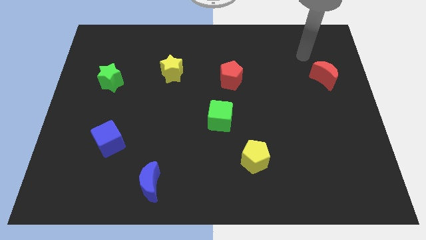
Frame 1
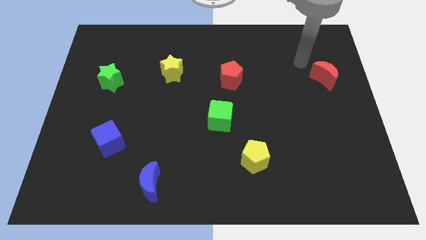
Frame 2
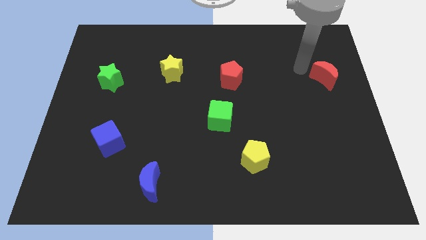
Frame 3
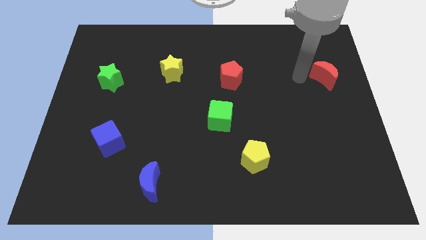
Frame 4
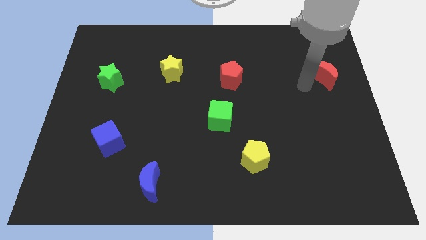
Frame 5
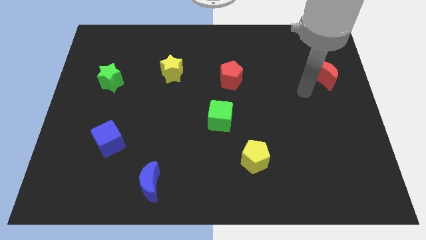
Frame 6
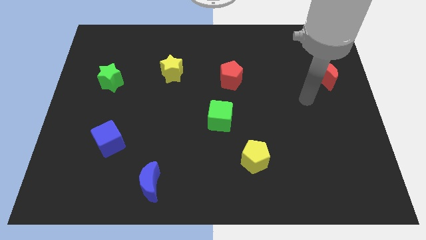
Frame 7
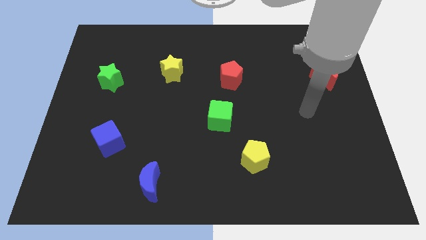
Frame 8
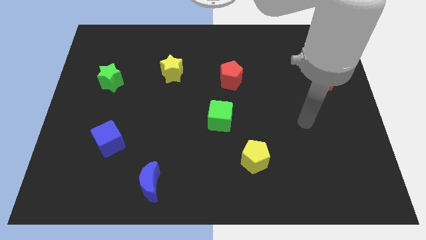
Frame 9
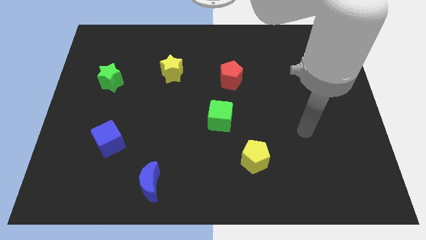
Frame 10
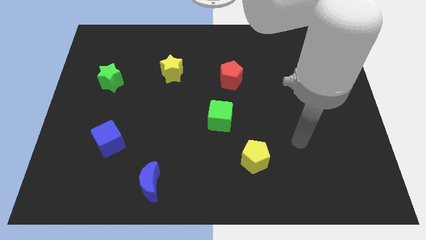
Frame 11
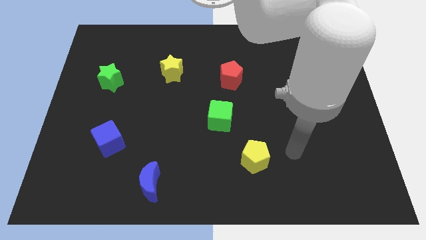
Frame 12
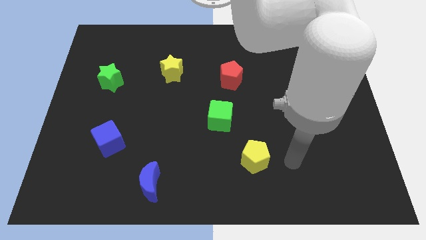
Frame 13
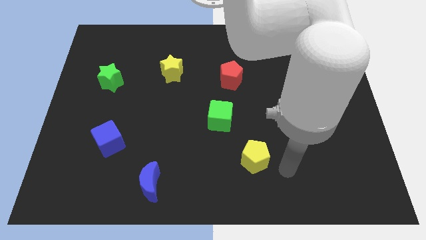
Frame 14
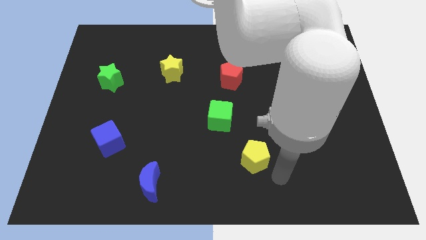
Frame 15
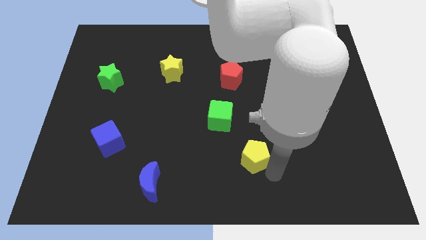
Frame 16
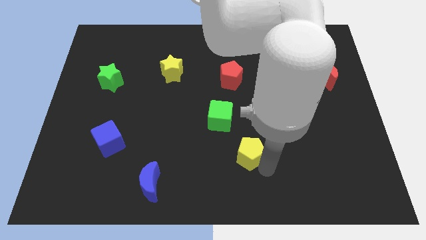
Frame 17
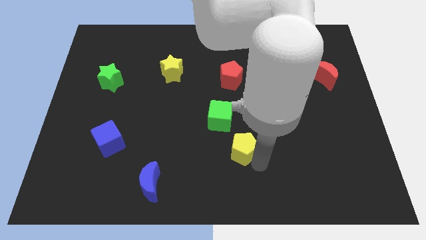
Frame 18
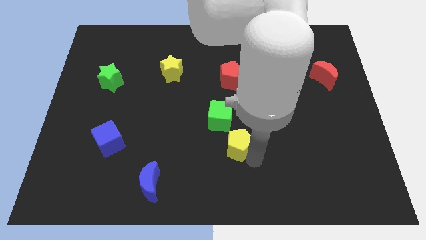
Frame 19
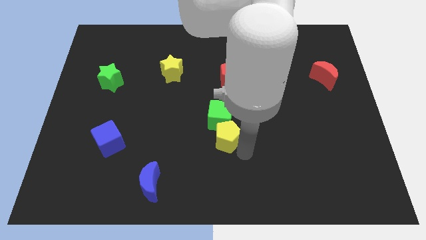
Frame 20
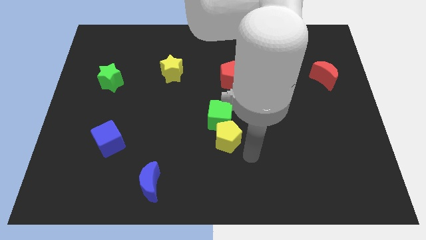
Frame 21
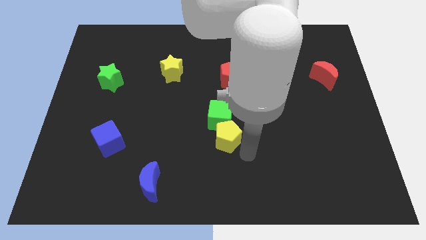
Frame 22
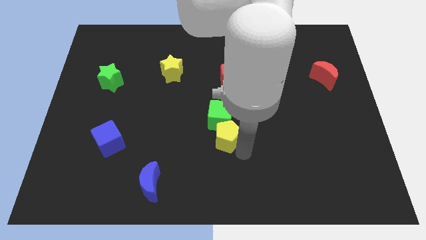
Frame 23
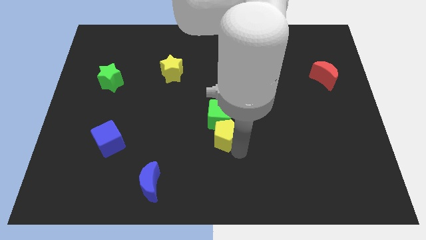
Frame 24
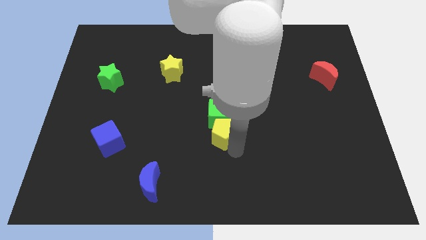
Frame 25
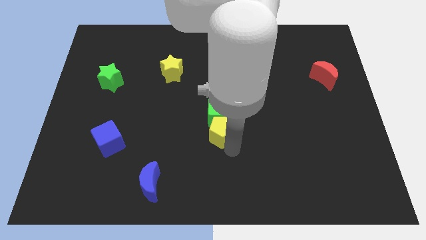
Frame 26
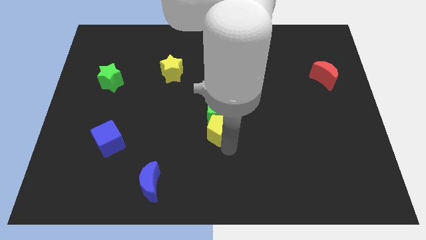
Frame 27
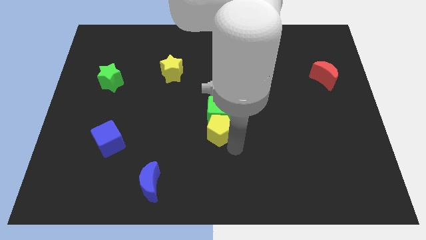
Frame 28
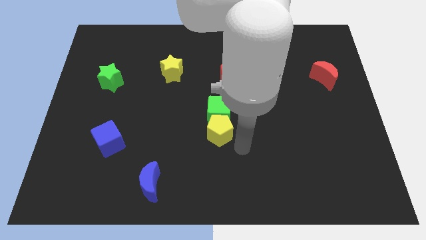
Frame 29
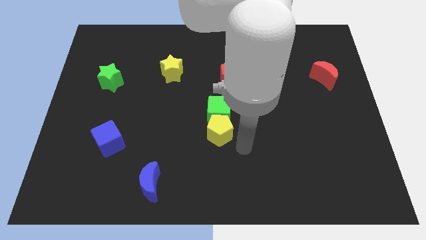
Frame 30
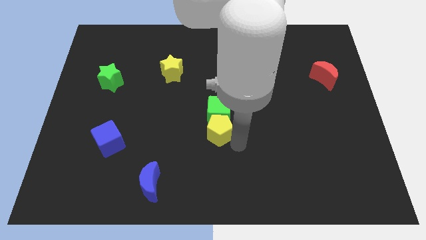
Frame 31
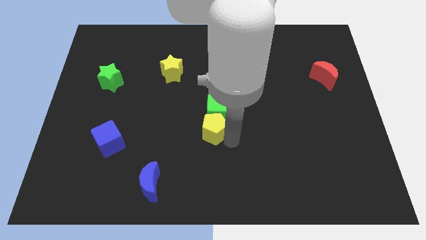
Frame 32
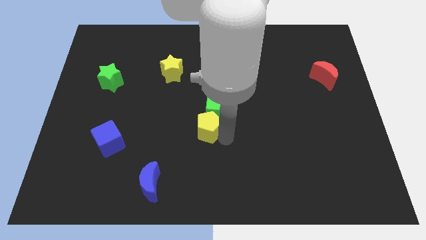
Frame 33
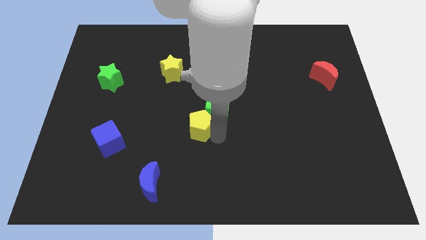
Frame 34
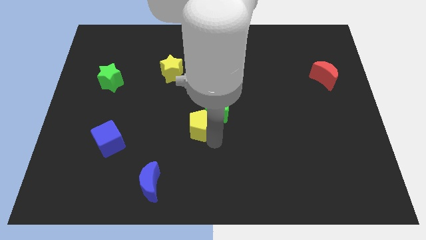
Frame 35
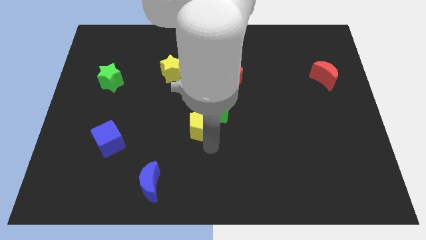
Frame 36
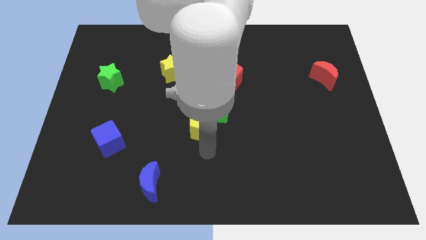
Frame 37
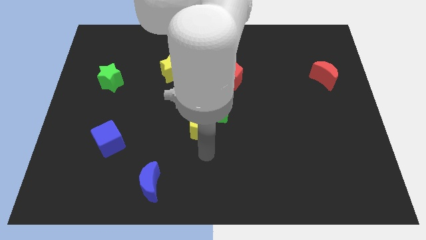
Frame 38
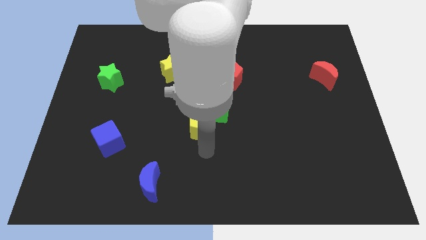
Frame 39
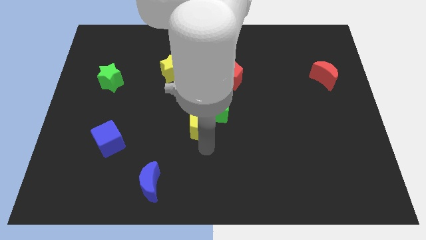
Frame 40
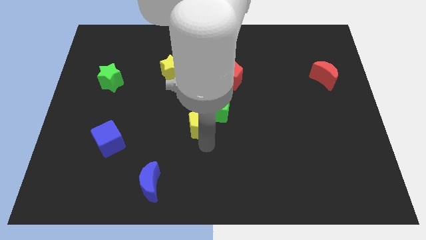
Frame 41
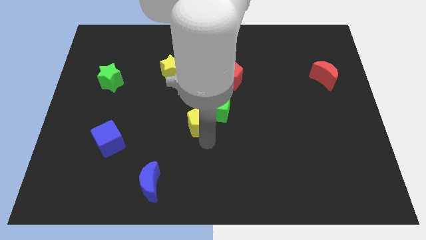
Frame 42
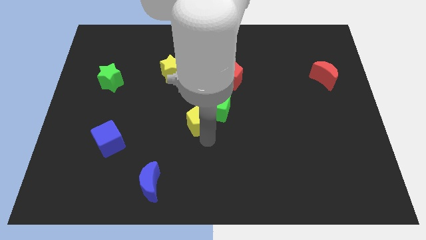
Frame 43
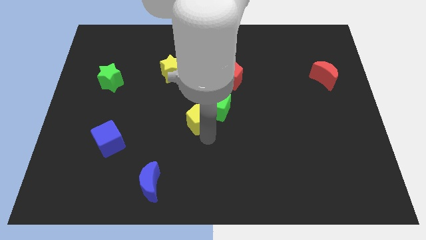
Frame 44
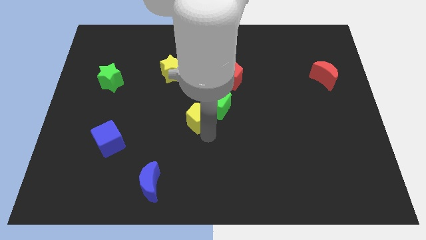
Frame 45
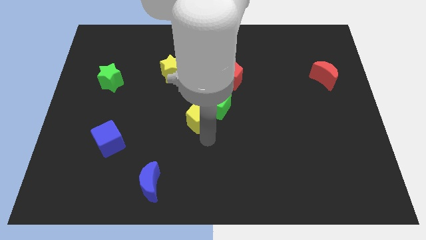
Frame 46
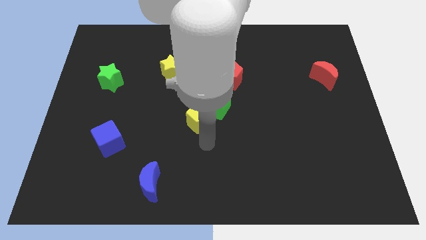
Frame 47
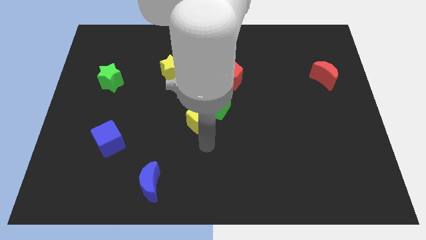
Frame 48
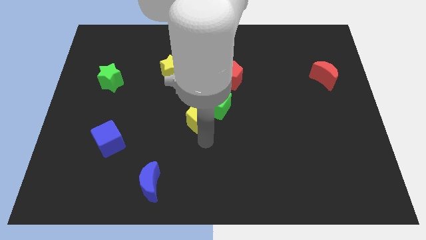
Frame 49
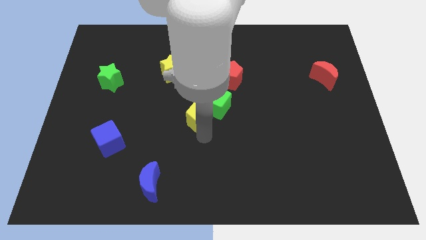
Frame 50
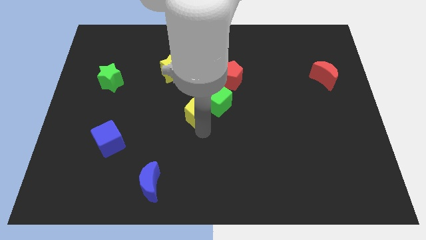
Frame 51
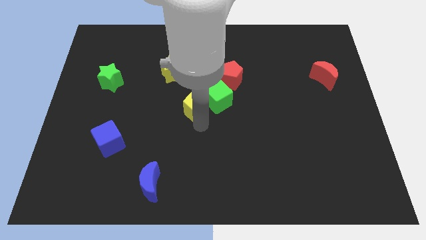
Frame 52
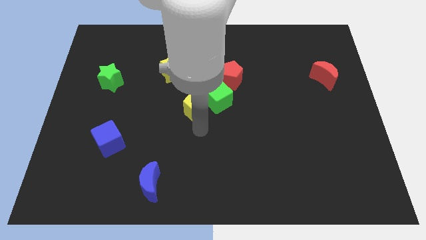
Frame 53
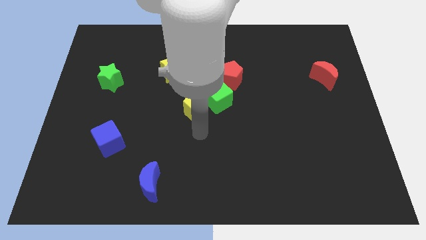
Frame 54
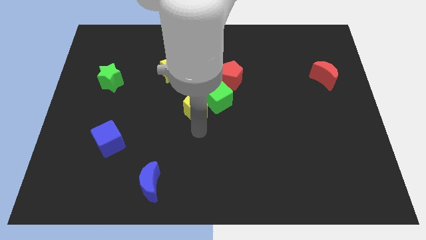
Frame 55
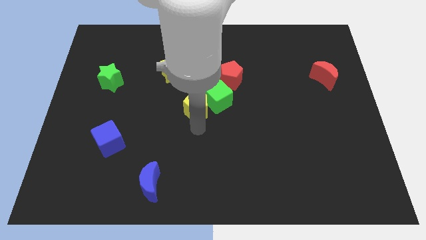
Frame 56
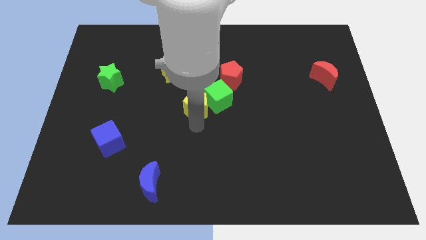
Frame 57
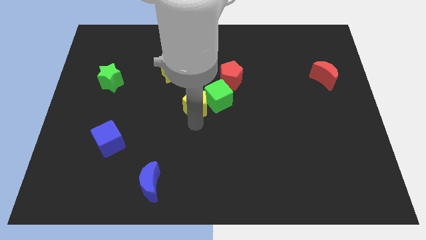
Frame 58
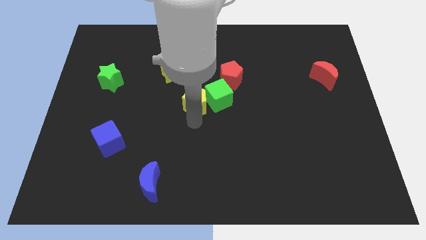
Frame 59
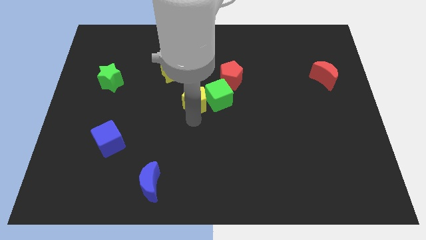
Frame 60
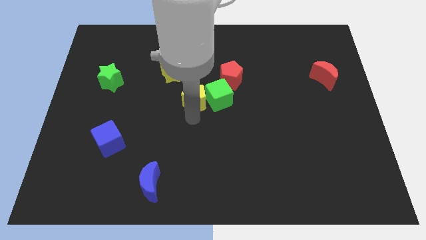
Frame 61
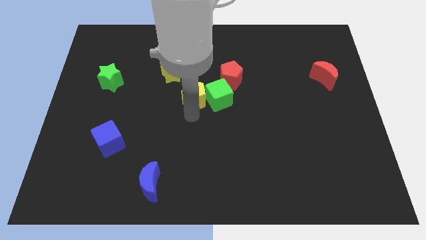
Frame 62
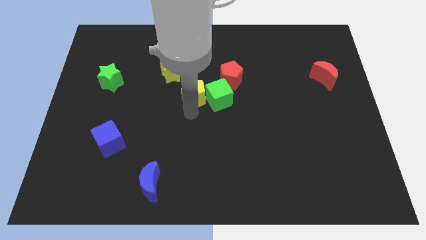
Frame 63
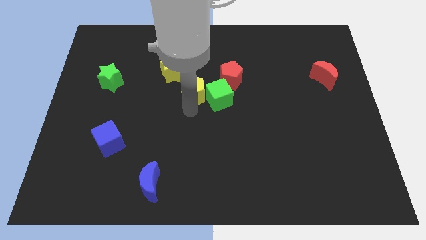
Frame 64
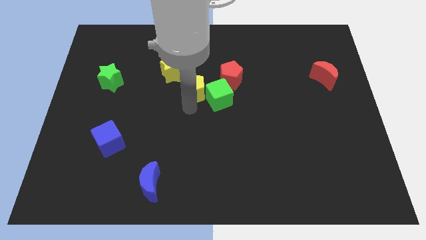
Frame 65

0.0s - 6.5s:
put the yellow pentagon just left of the red pentagon
